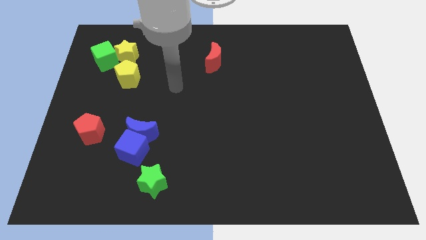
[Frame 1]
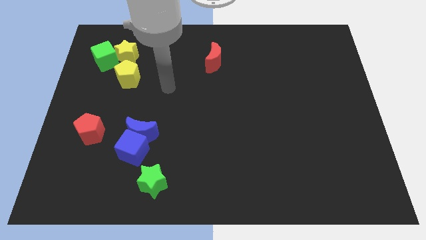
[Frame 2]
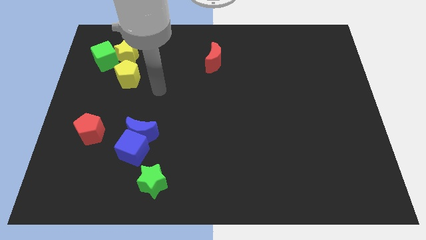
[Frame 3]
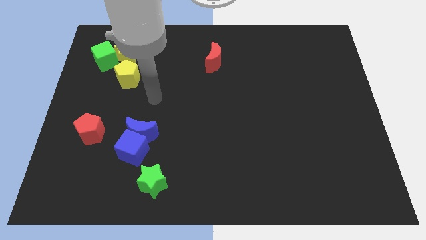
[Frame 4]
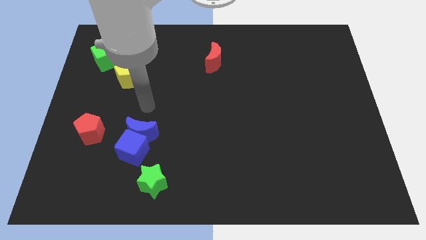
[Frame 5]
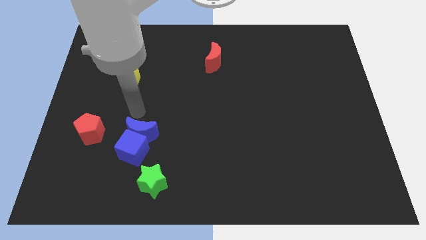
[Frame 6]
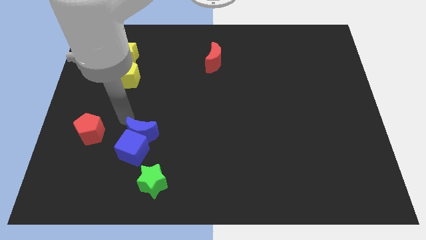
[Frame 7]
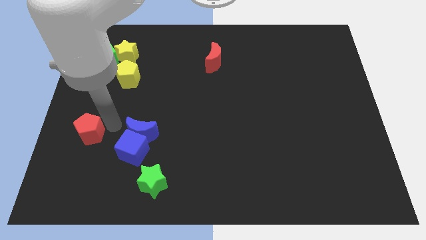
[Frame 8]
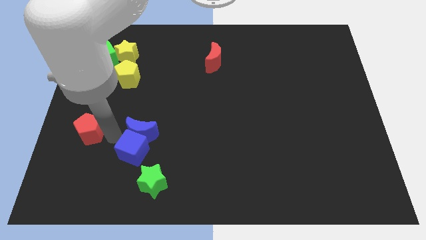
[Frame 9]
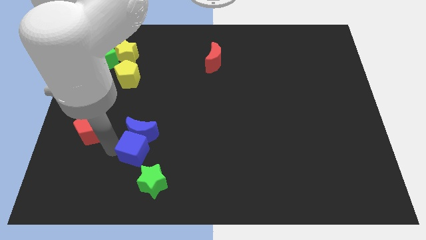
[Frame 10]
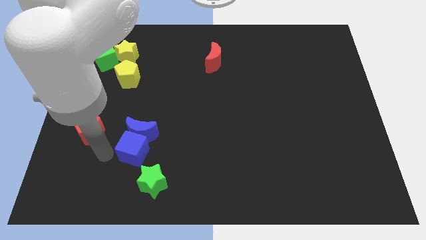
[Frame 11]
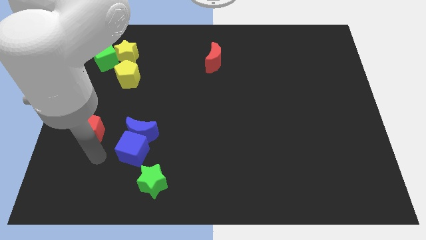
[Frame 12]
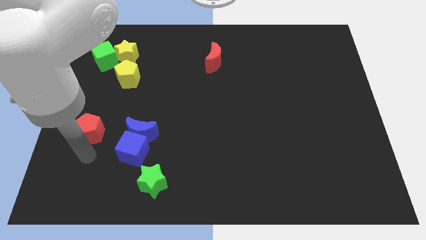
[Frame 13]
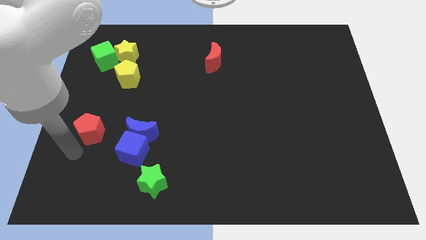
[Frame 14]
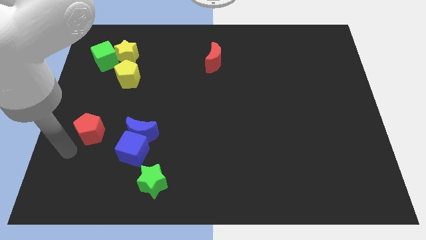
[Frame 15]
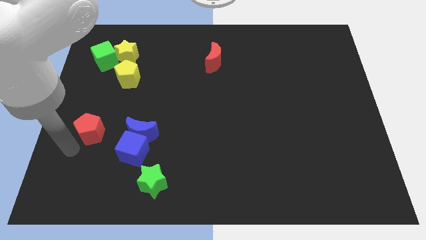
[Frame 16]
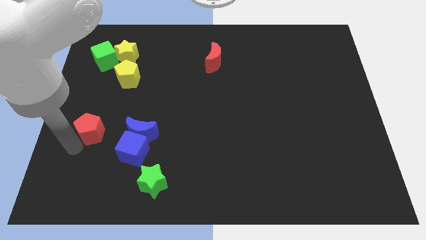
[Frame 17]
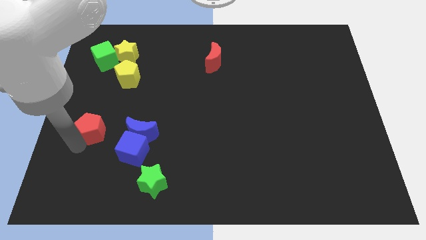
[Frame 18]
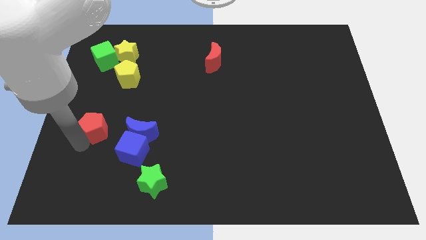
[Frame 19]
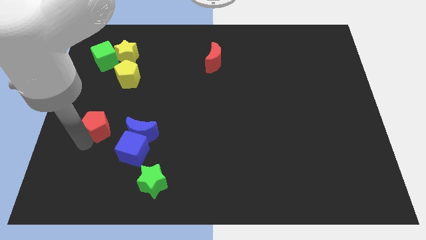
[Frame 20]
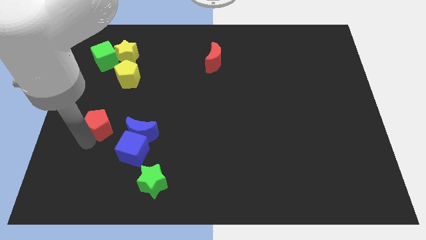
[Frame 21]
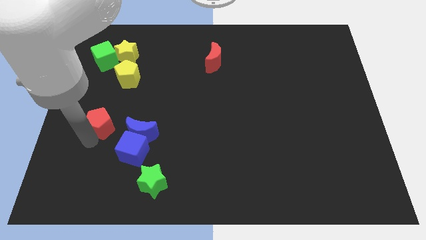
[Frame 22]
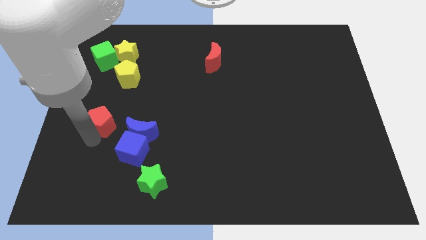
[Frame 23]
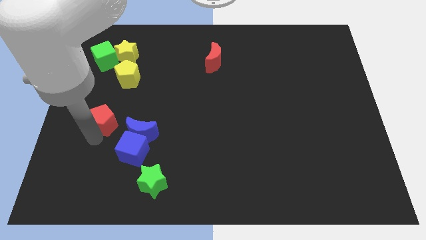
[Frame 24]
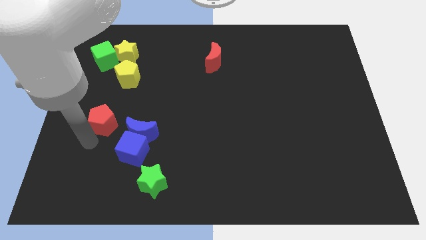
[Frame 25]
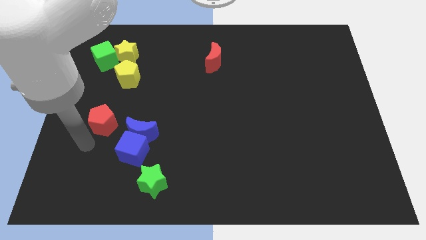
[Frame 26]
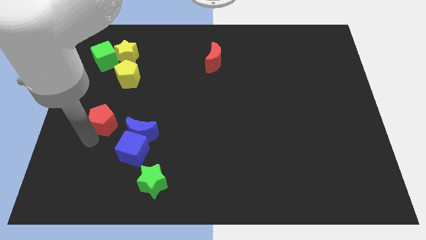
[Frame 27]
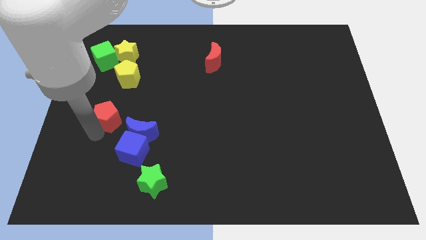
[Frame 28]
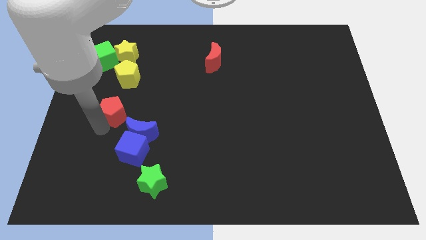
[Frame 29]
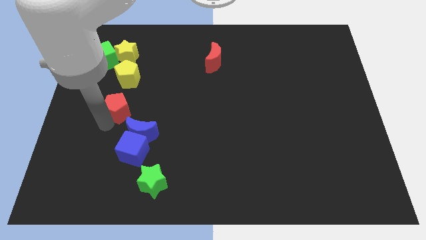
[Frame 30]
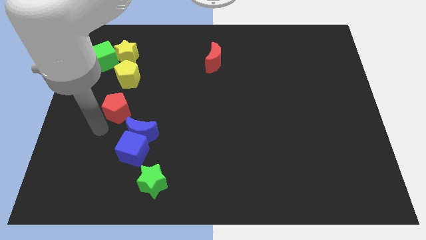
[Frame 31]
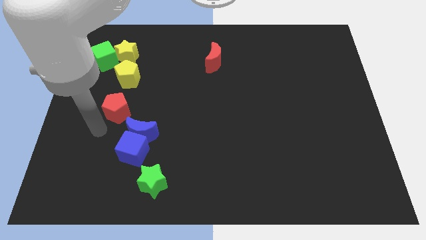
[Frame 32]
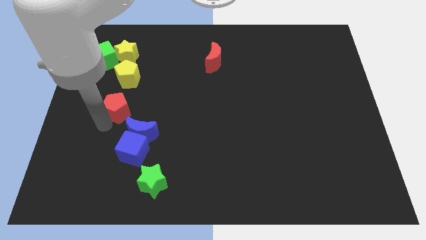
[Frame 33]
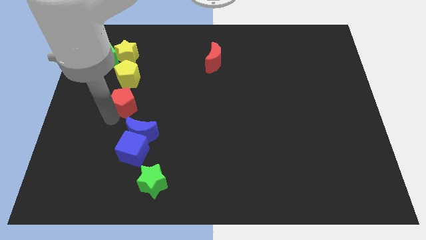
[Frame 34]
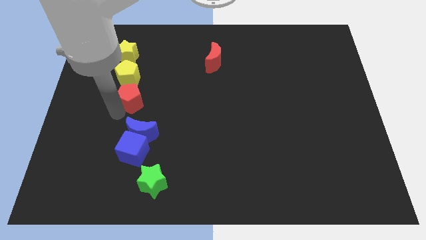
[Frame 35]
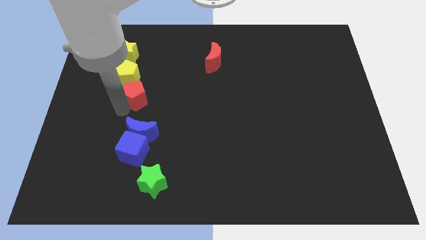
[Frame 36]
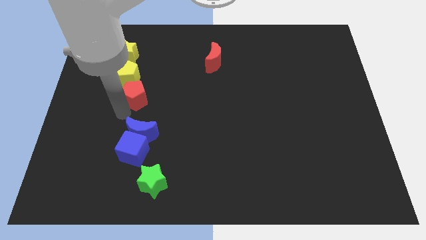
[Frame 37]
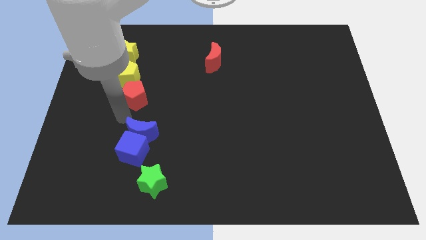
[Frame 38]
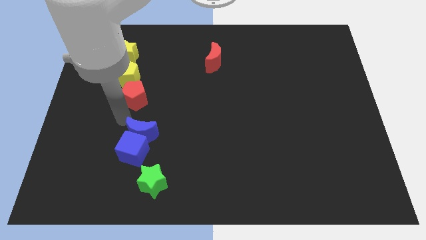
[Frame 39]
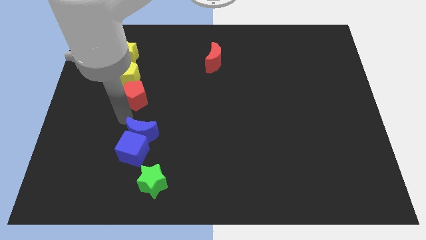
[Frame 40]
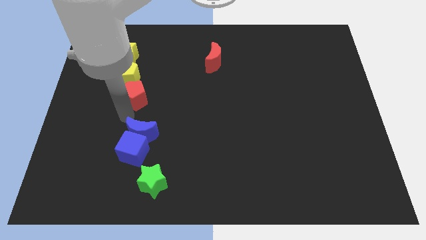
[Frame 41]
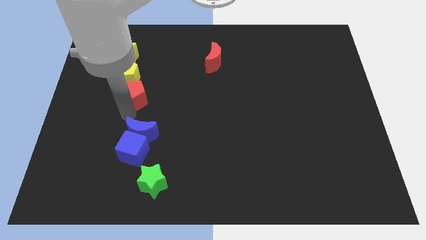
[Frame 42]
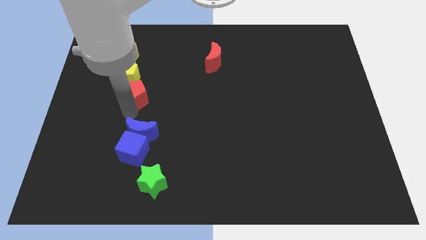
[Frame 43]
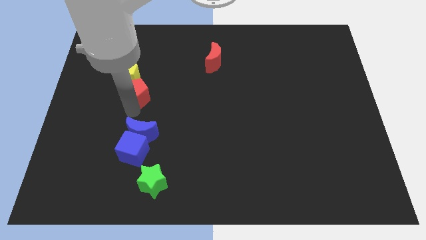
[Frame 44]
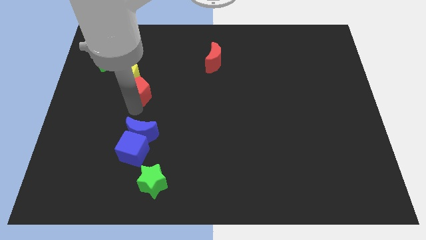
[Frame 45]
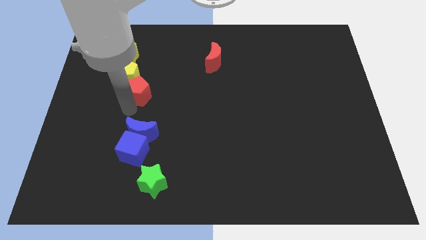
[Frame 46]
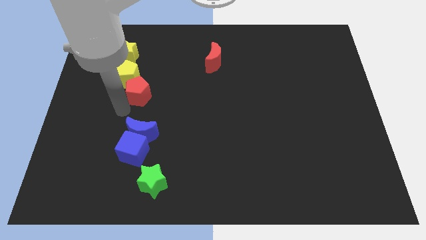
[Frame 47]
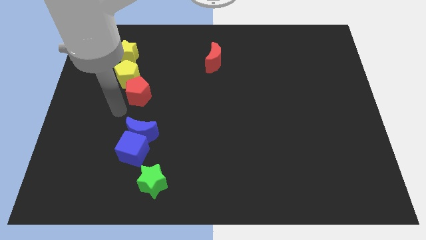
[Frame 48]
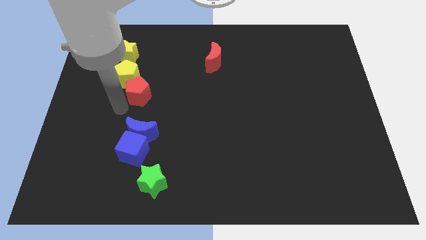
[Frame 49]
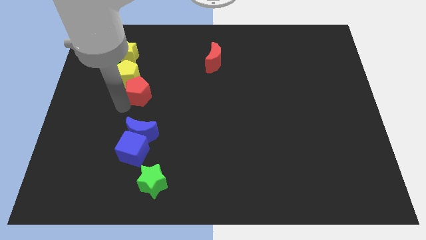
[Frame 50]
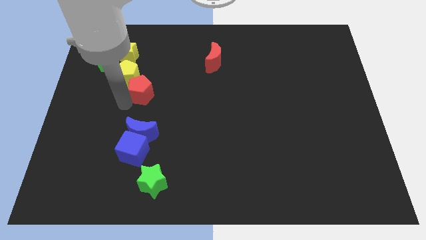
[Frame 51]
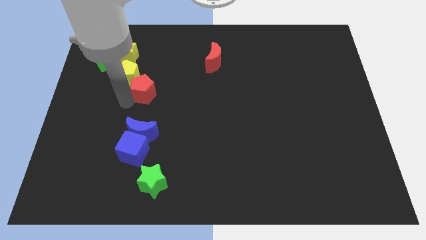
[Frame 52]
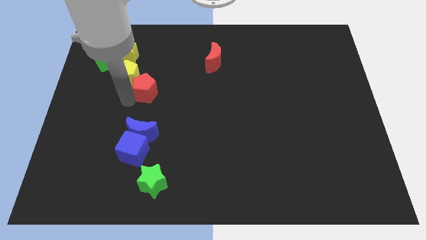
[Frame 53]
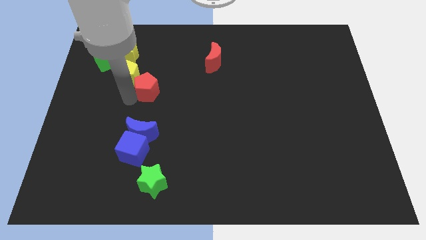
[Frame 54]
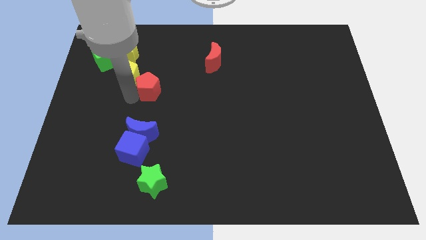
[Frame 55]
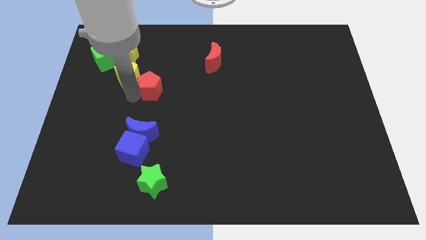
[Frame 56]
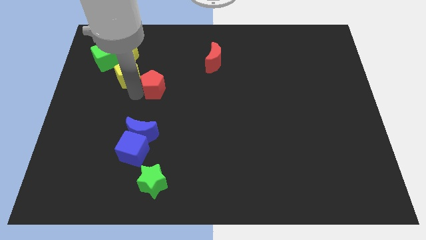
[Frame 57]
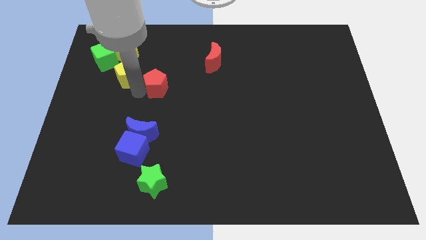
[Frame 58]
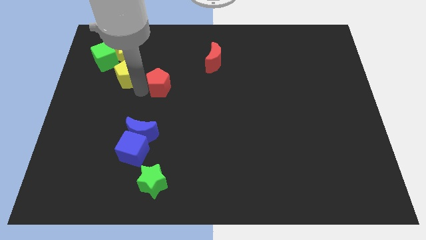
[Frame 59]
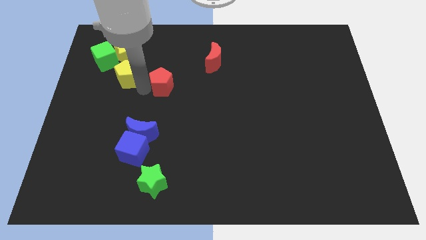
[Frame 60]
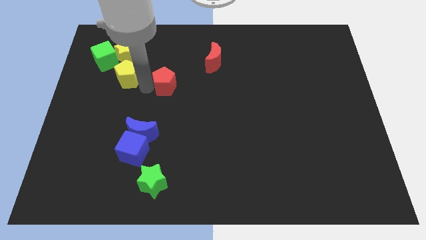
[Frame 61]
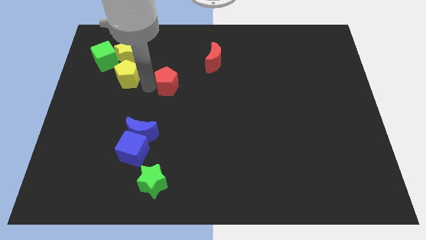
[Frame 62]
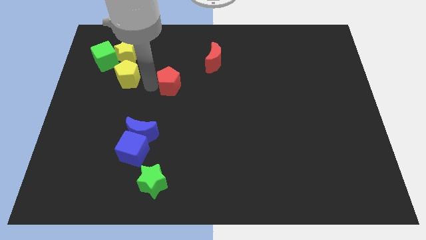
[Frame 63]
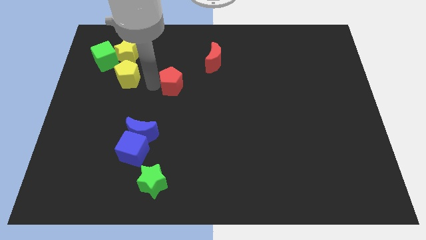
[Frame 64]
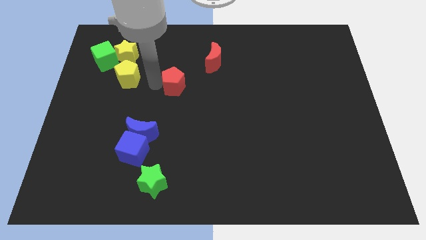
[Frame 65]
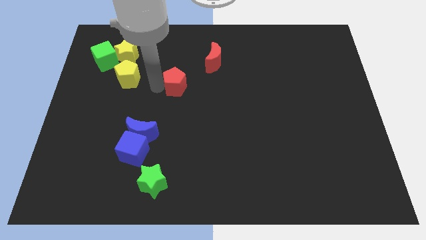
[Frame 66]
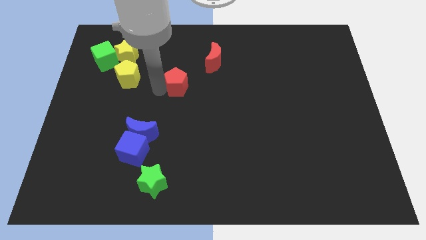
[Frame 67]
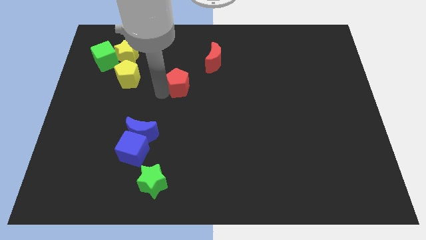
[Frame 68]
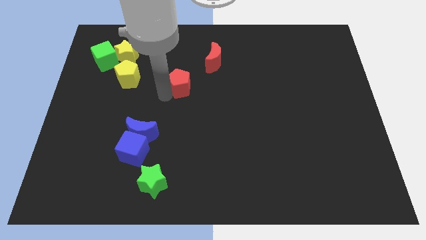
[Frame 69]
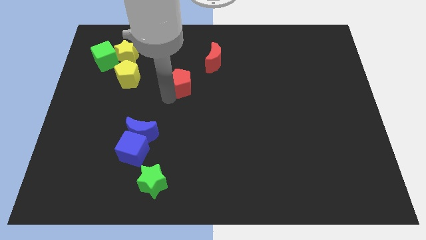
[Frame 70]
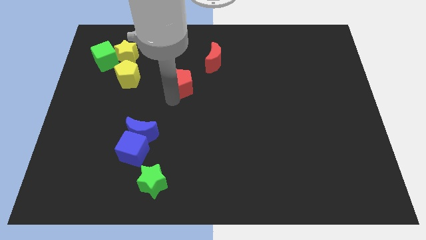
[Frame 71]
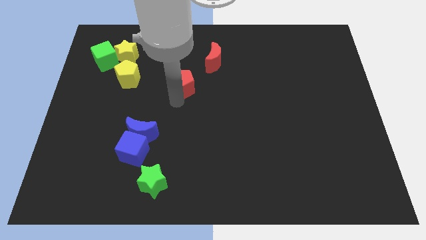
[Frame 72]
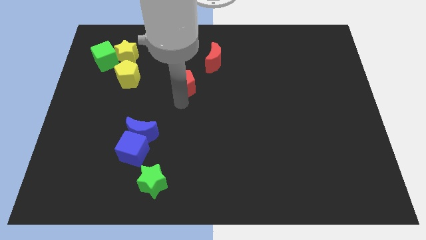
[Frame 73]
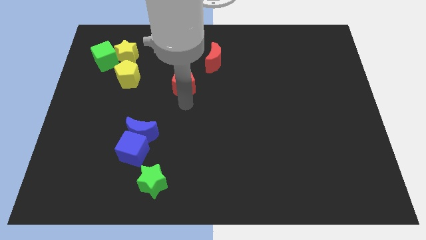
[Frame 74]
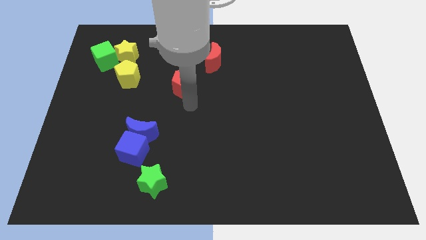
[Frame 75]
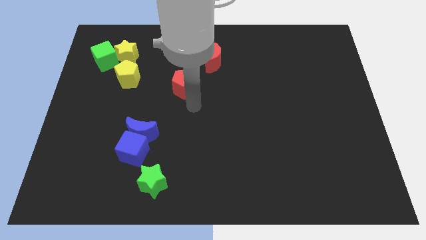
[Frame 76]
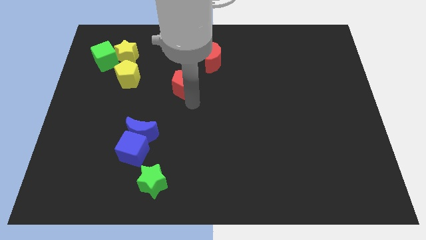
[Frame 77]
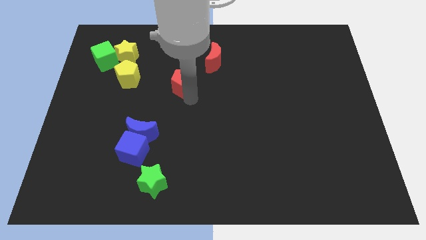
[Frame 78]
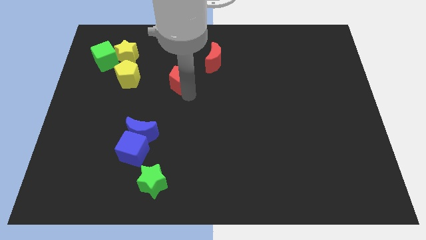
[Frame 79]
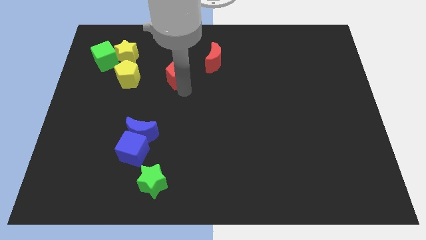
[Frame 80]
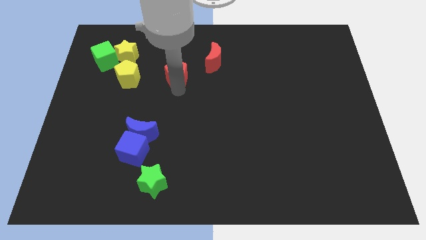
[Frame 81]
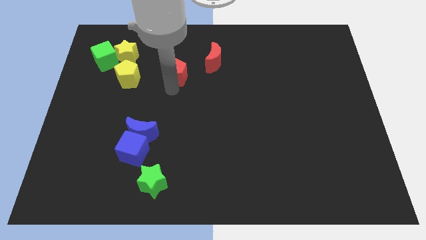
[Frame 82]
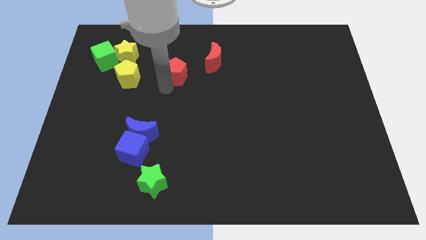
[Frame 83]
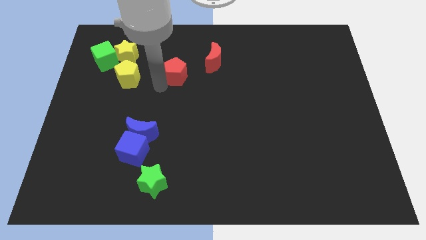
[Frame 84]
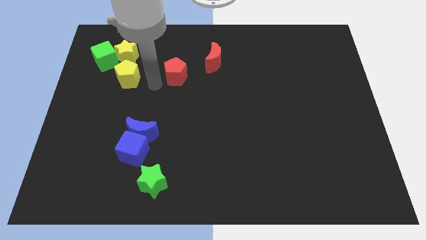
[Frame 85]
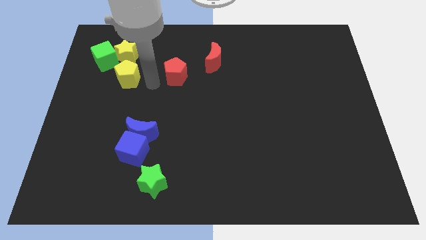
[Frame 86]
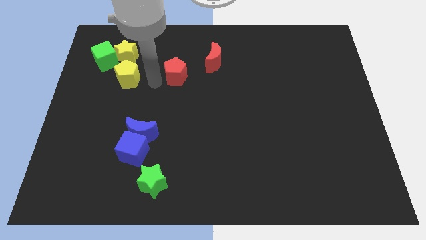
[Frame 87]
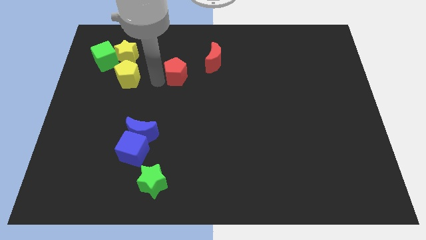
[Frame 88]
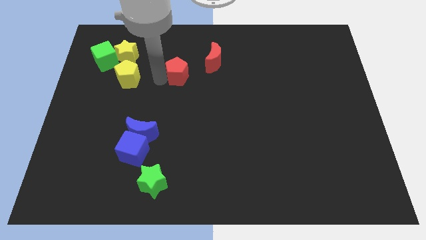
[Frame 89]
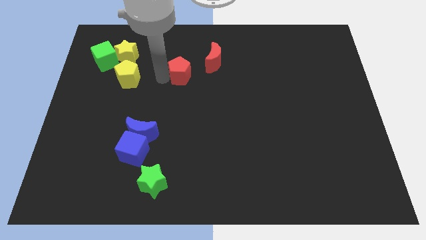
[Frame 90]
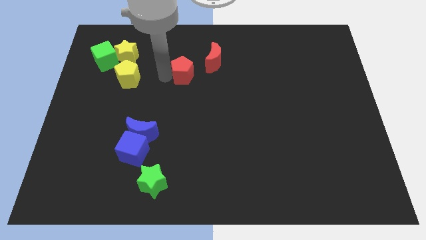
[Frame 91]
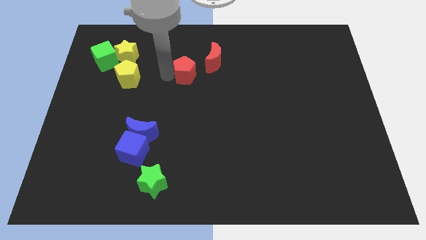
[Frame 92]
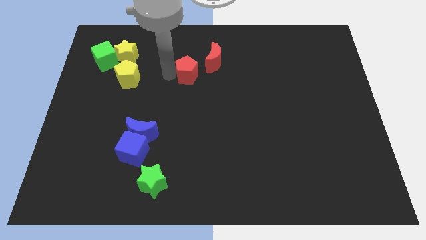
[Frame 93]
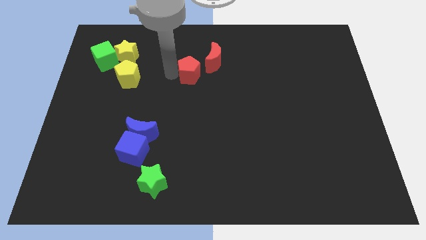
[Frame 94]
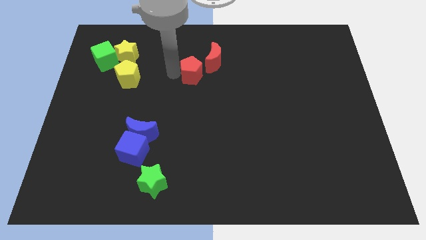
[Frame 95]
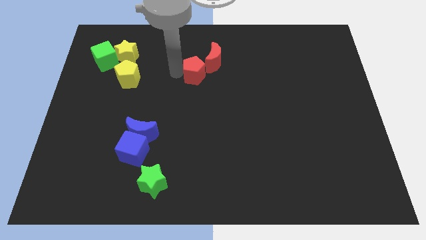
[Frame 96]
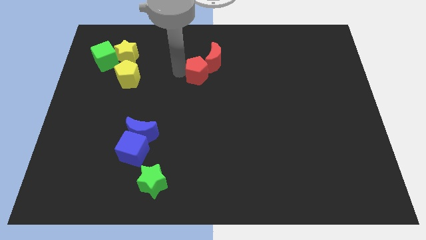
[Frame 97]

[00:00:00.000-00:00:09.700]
move the red pentagon towards the red moon
